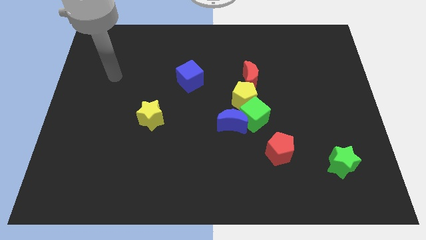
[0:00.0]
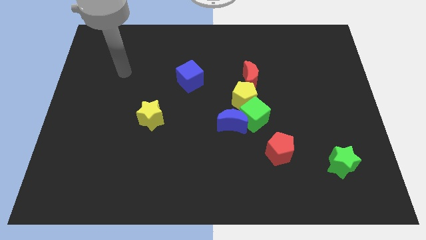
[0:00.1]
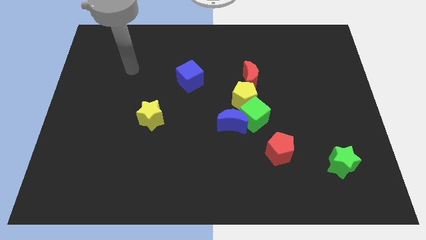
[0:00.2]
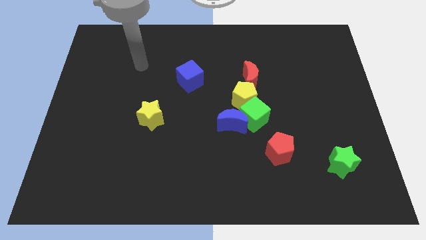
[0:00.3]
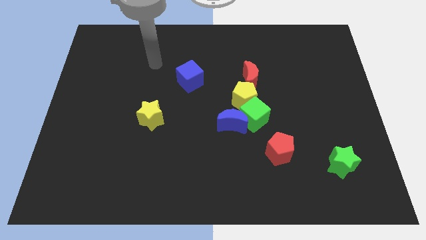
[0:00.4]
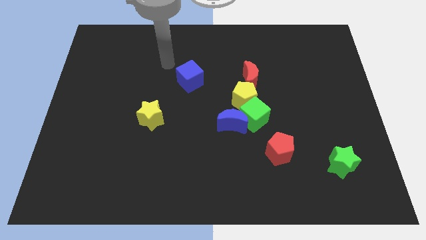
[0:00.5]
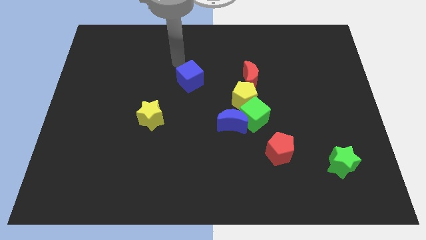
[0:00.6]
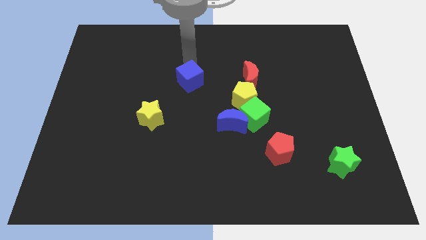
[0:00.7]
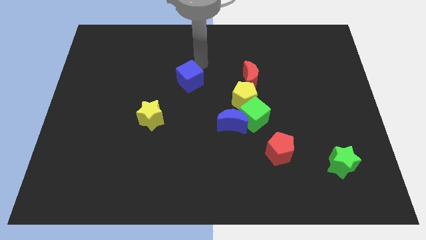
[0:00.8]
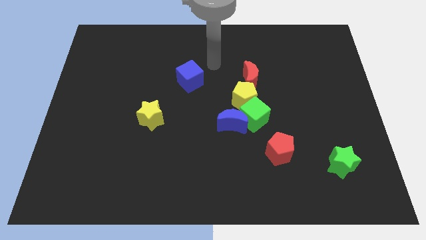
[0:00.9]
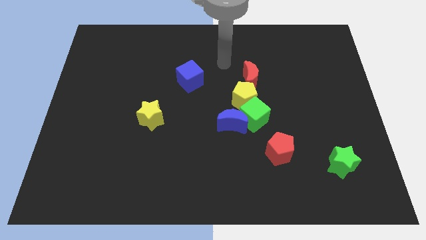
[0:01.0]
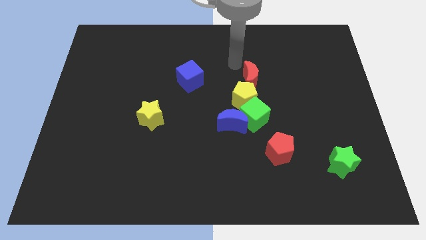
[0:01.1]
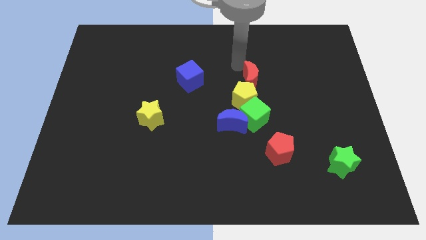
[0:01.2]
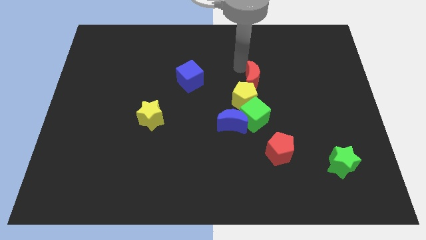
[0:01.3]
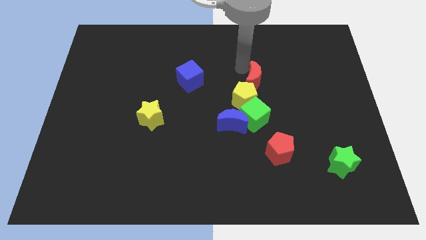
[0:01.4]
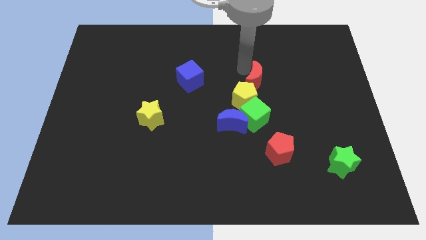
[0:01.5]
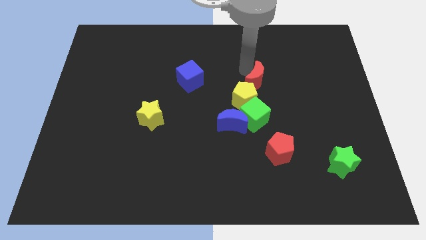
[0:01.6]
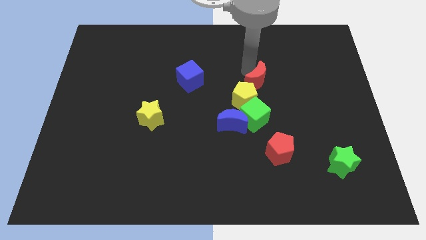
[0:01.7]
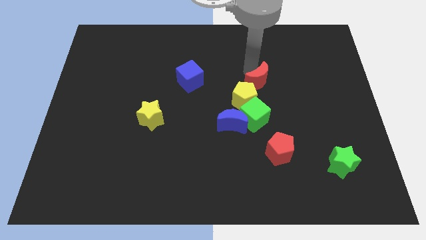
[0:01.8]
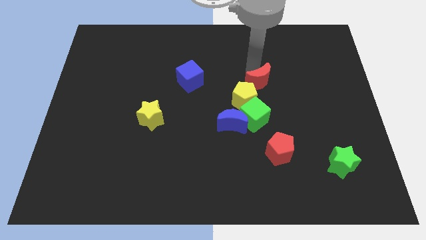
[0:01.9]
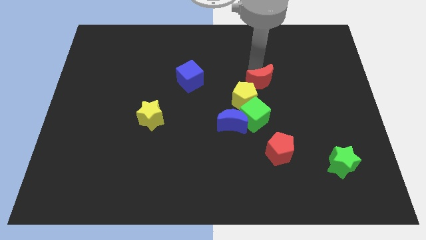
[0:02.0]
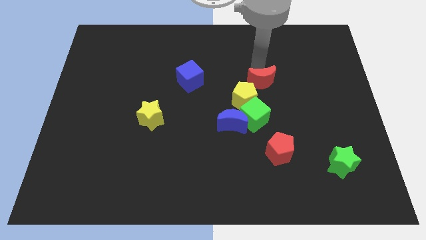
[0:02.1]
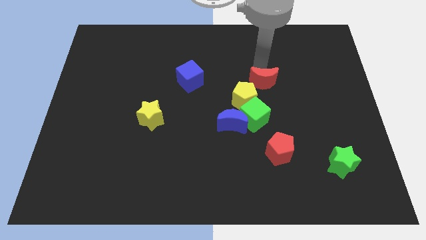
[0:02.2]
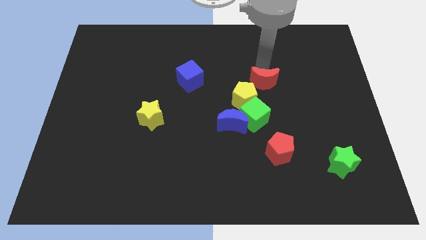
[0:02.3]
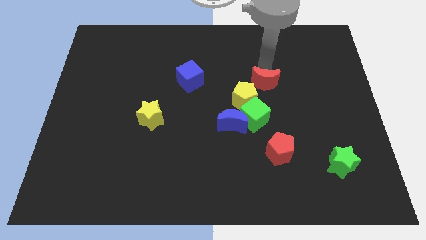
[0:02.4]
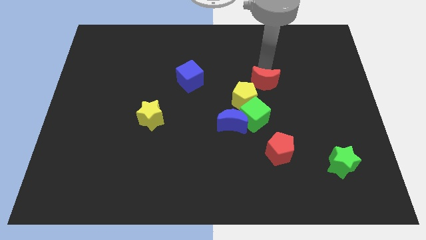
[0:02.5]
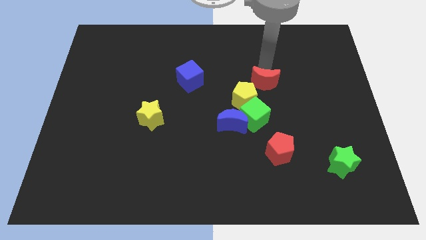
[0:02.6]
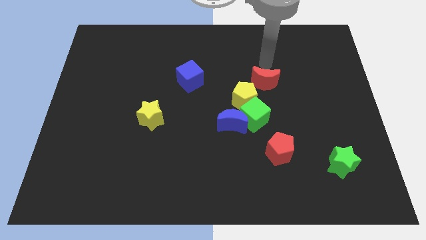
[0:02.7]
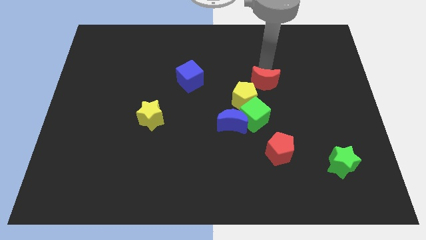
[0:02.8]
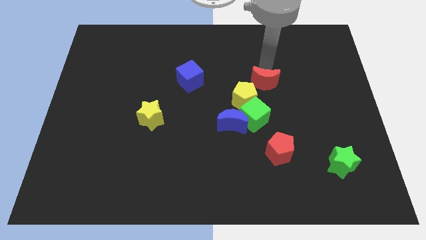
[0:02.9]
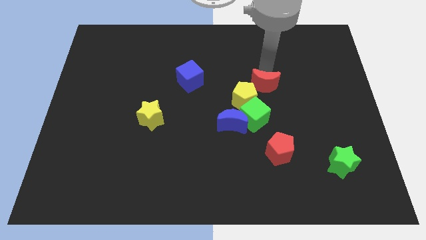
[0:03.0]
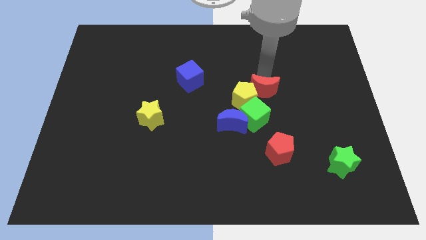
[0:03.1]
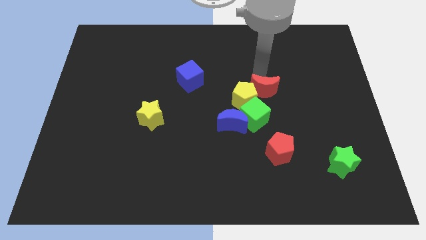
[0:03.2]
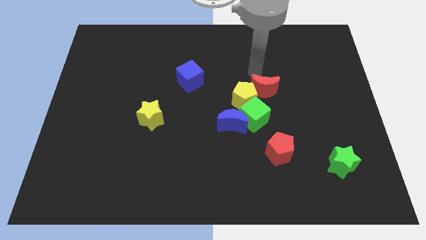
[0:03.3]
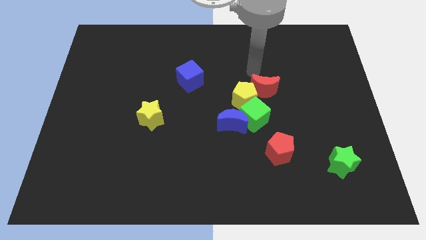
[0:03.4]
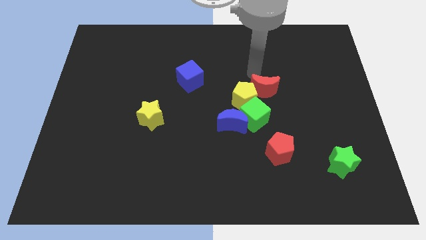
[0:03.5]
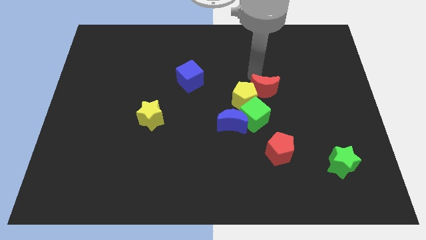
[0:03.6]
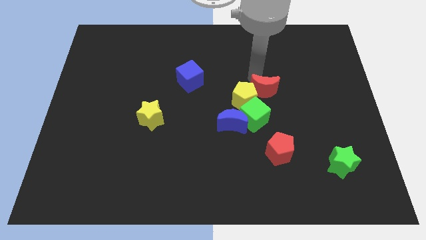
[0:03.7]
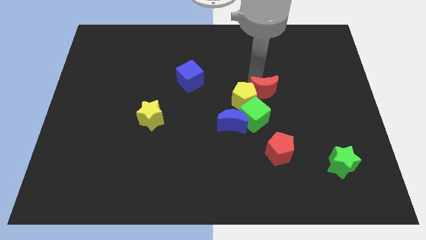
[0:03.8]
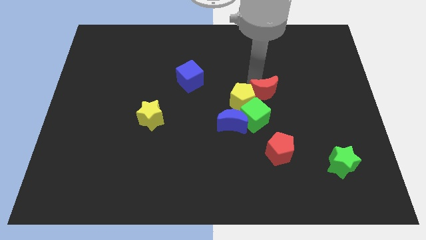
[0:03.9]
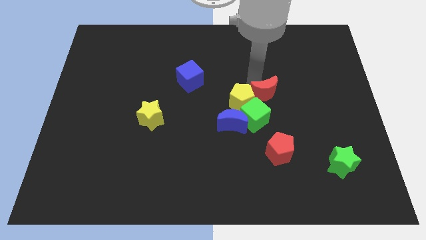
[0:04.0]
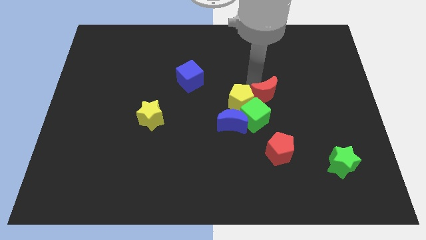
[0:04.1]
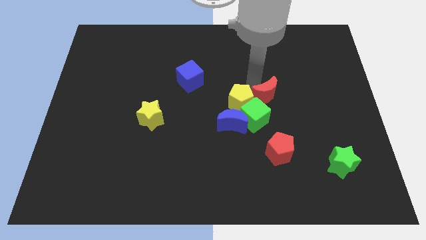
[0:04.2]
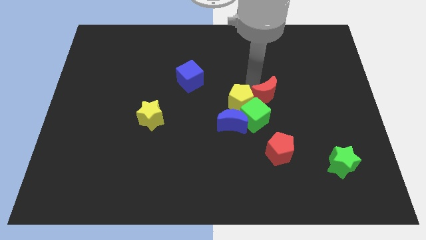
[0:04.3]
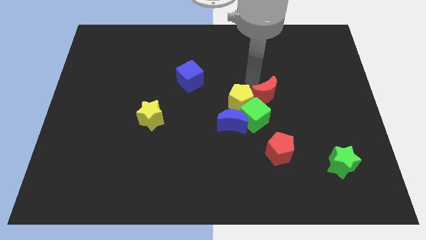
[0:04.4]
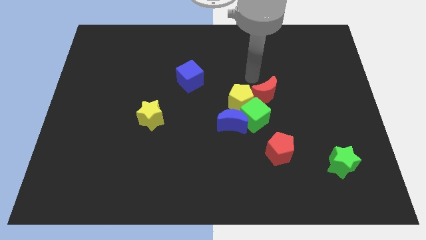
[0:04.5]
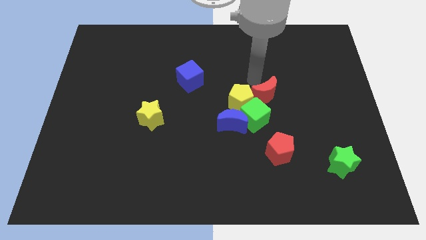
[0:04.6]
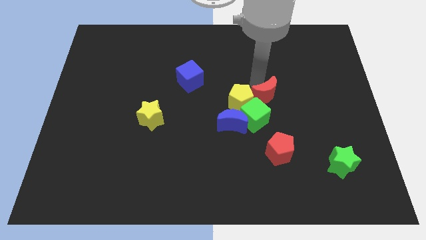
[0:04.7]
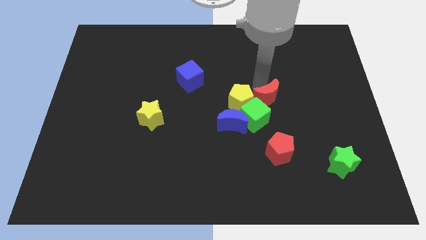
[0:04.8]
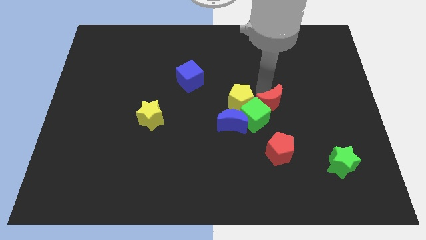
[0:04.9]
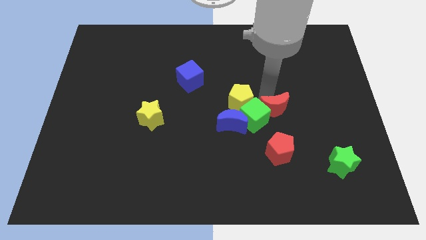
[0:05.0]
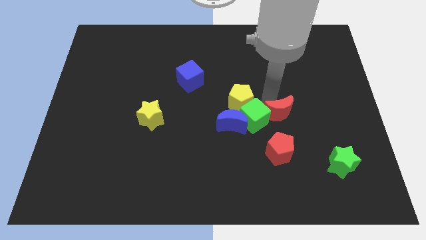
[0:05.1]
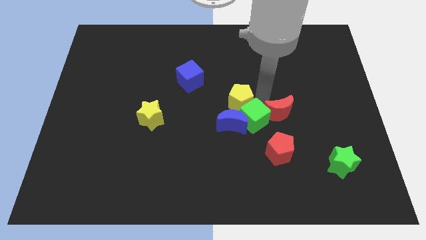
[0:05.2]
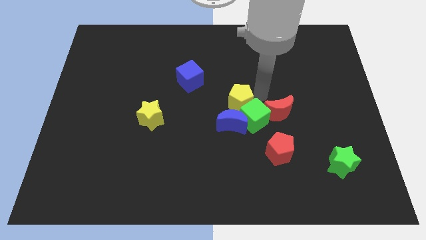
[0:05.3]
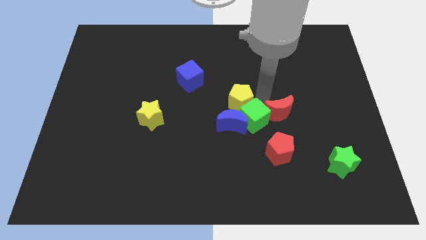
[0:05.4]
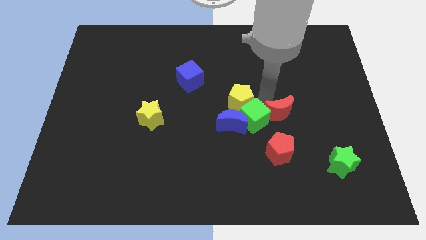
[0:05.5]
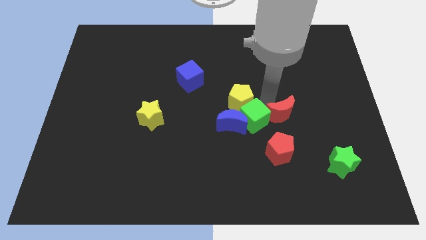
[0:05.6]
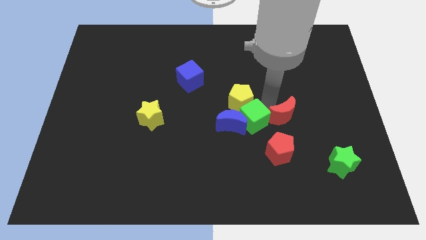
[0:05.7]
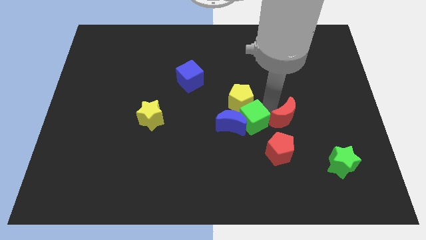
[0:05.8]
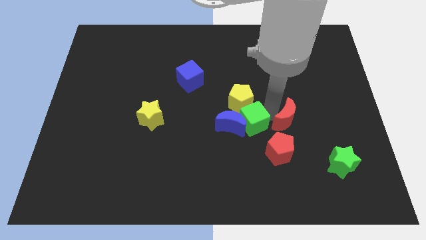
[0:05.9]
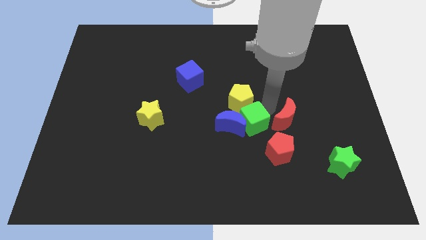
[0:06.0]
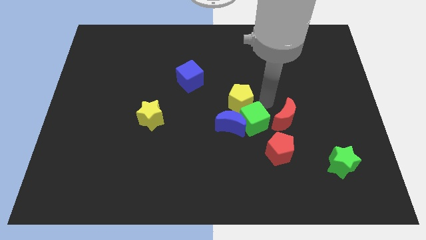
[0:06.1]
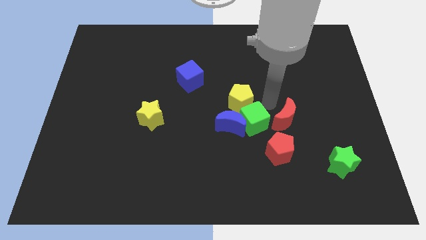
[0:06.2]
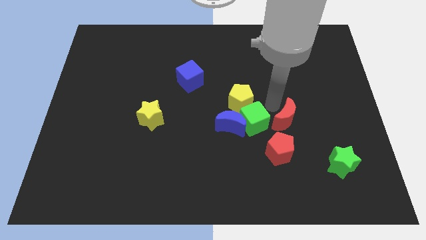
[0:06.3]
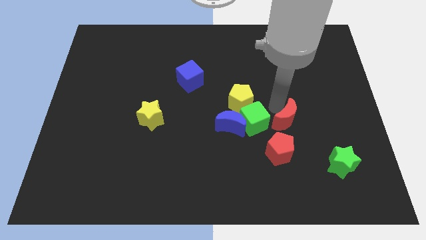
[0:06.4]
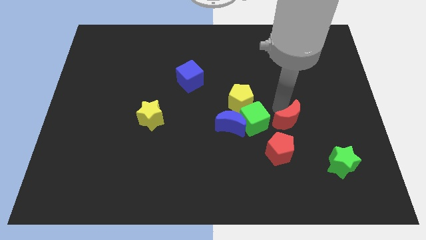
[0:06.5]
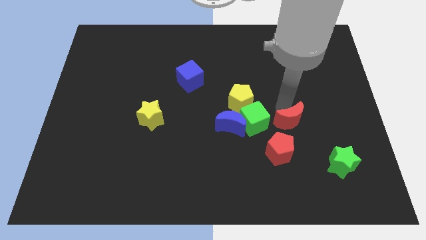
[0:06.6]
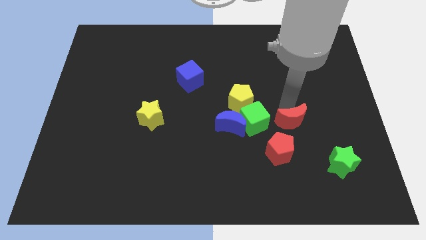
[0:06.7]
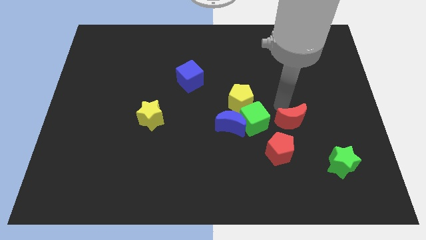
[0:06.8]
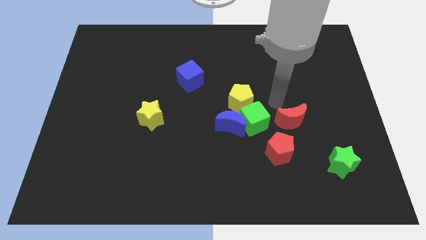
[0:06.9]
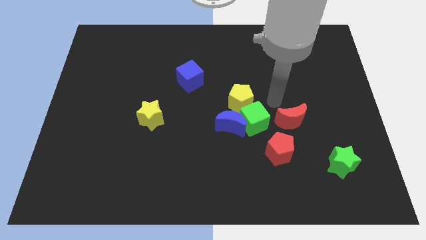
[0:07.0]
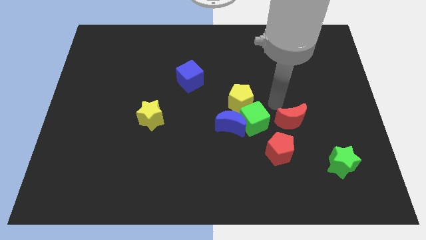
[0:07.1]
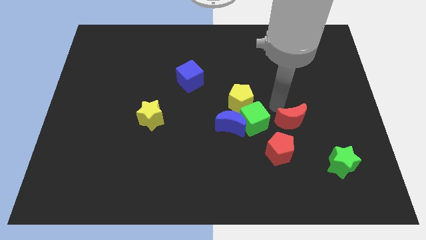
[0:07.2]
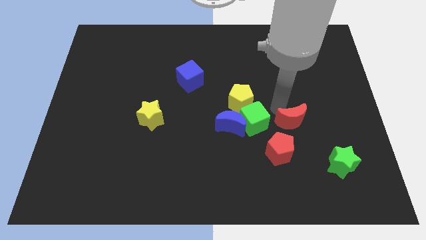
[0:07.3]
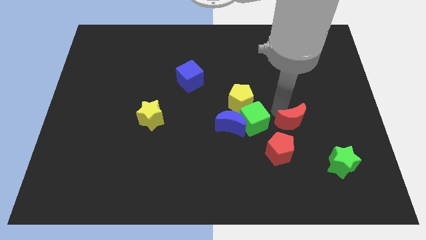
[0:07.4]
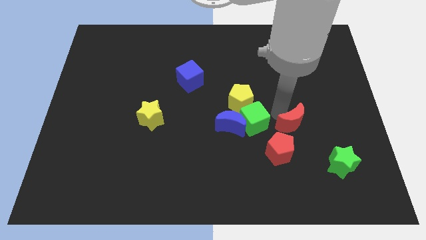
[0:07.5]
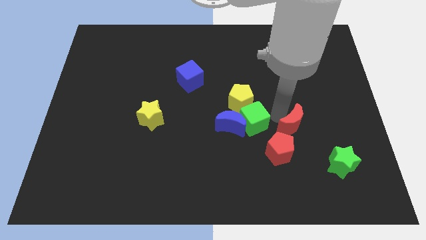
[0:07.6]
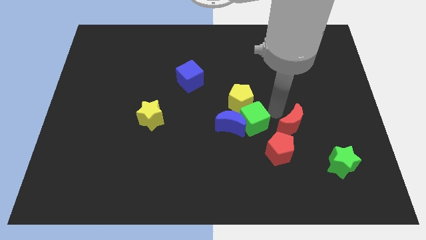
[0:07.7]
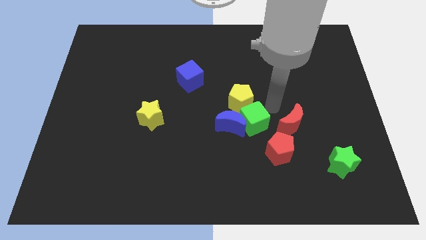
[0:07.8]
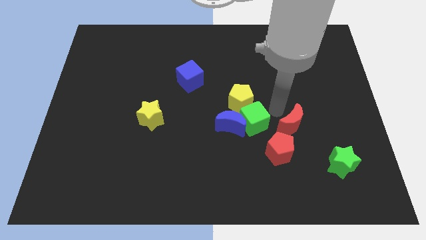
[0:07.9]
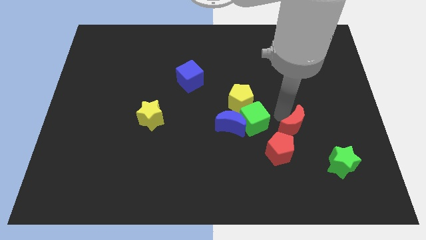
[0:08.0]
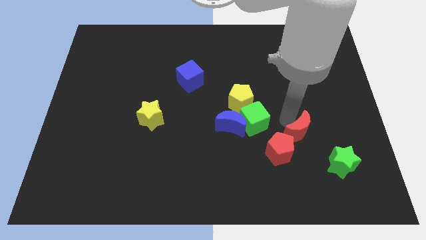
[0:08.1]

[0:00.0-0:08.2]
move the red moon to the top left of the green star
